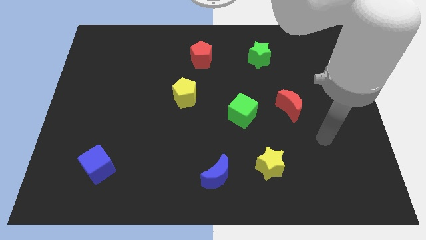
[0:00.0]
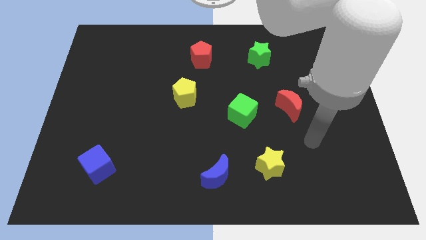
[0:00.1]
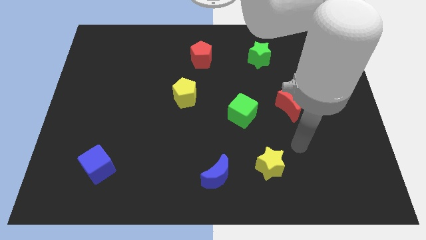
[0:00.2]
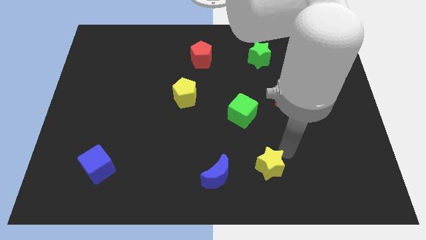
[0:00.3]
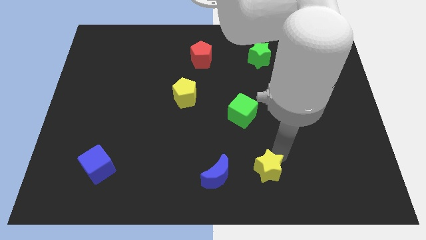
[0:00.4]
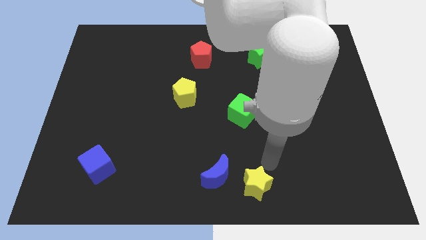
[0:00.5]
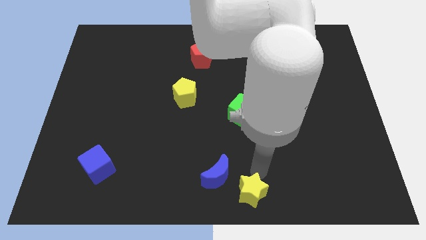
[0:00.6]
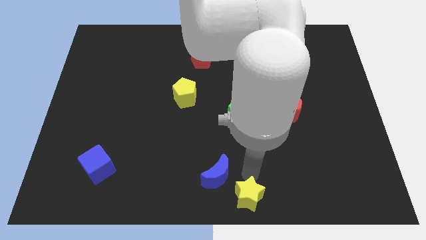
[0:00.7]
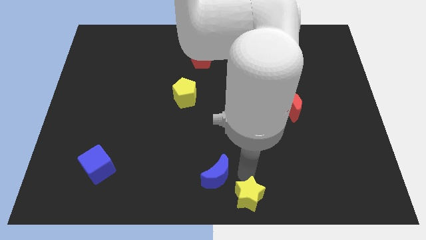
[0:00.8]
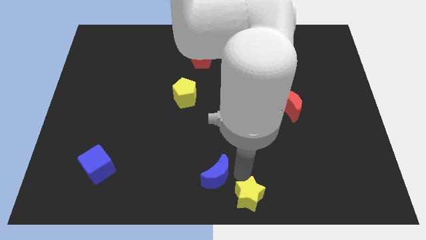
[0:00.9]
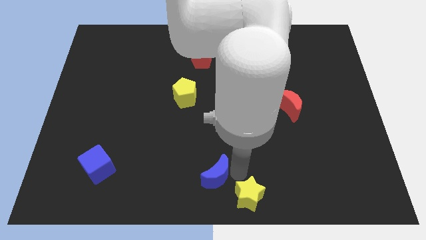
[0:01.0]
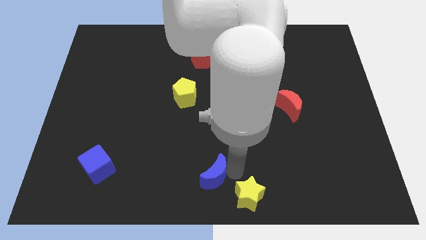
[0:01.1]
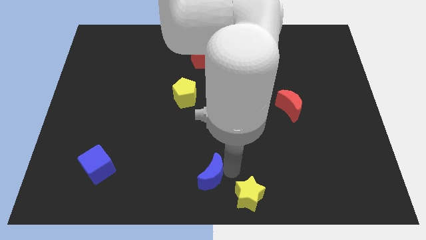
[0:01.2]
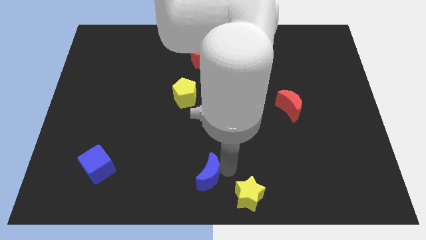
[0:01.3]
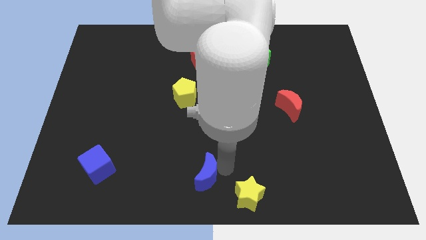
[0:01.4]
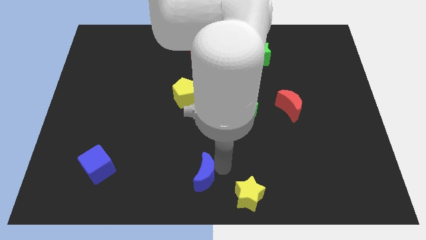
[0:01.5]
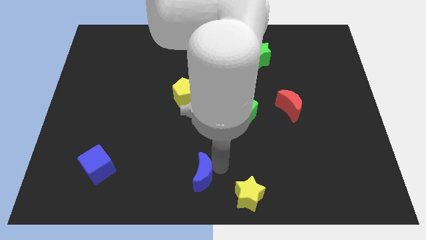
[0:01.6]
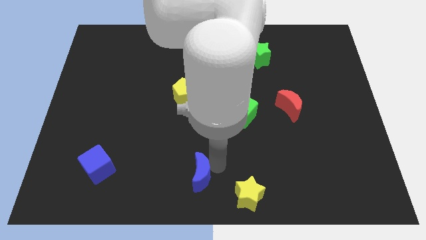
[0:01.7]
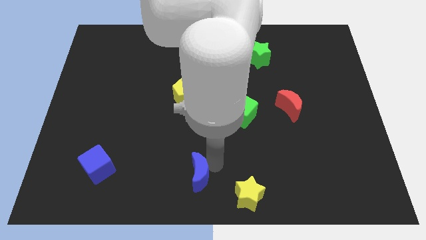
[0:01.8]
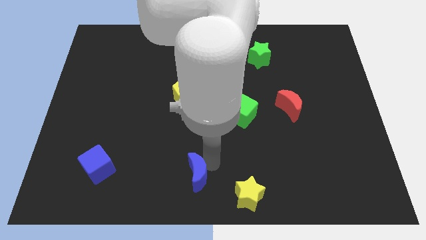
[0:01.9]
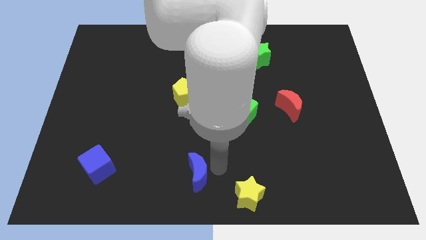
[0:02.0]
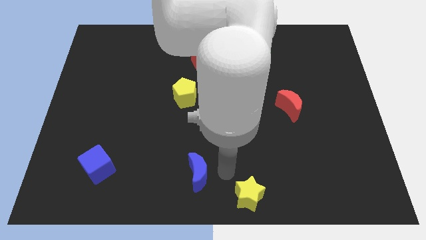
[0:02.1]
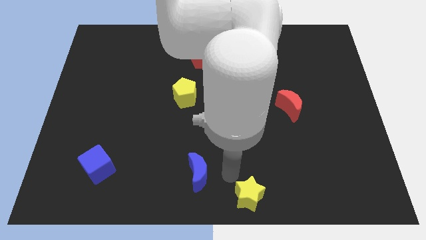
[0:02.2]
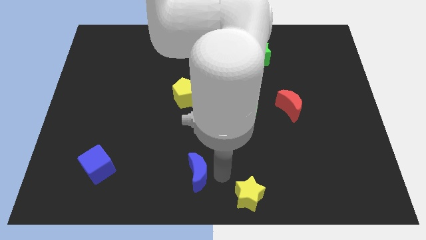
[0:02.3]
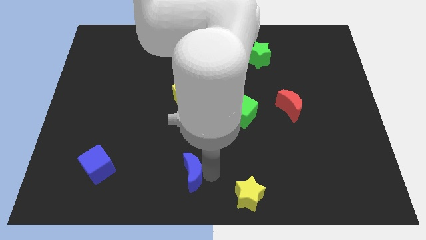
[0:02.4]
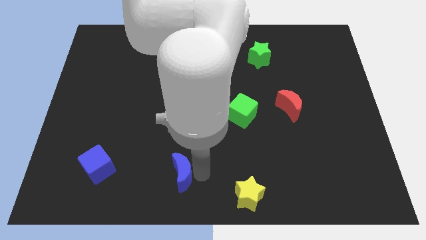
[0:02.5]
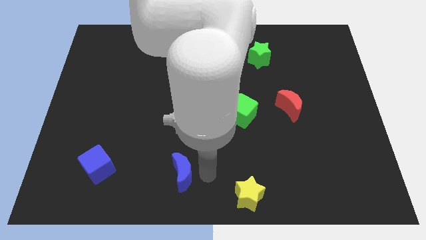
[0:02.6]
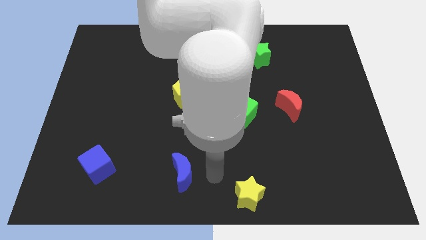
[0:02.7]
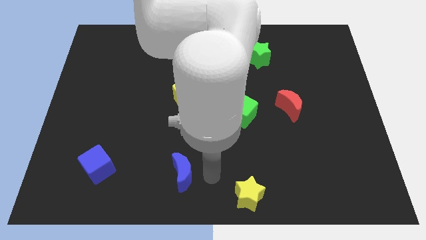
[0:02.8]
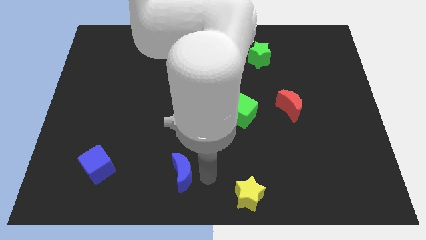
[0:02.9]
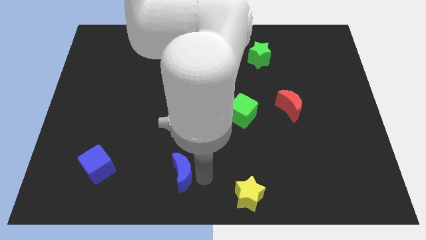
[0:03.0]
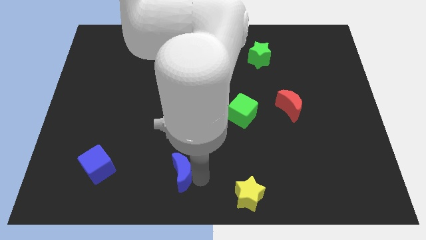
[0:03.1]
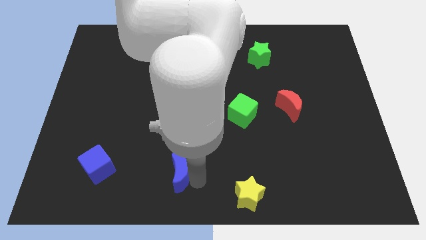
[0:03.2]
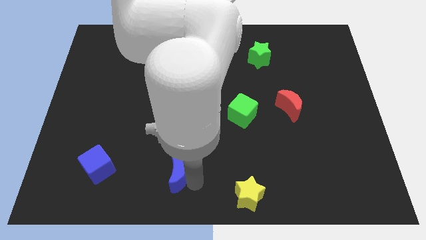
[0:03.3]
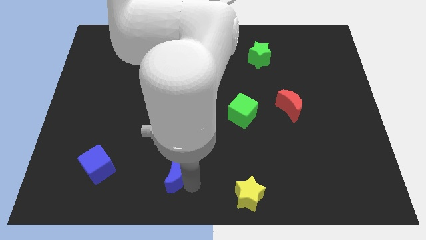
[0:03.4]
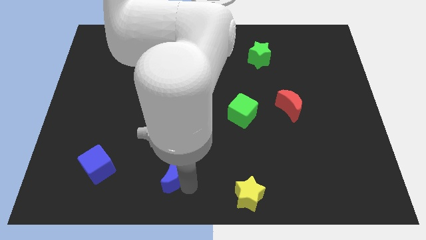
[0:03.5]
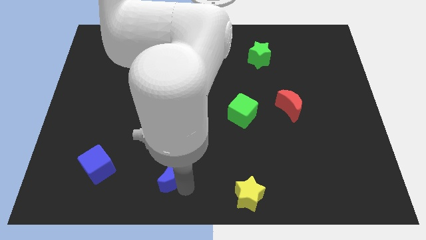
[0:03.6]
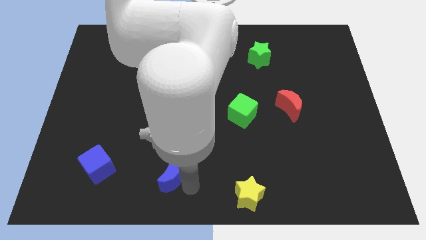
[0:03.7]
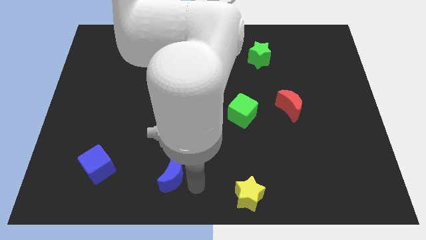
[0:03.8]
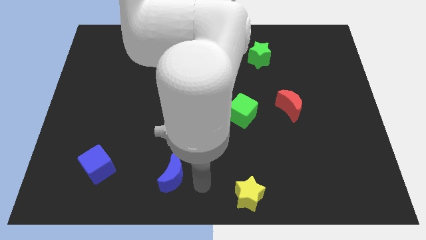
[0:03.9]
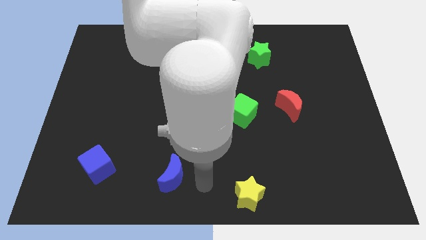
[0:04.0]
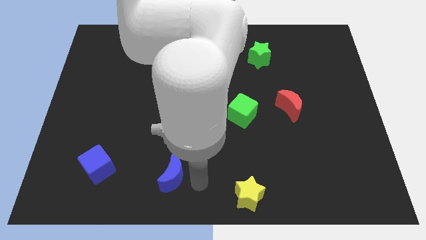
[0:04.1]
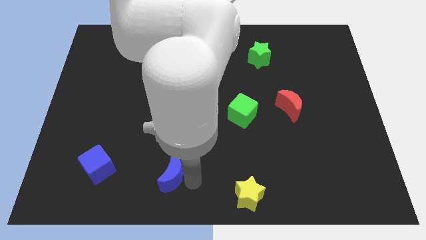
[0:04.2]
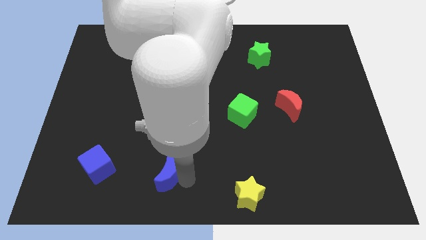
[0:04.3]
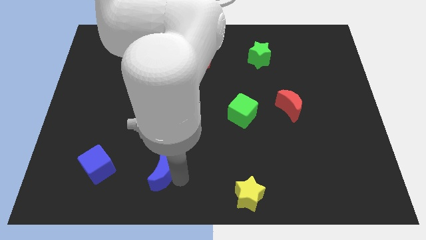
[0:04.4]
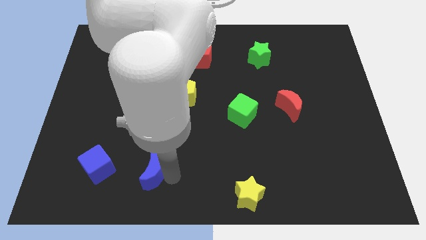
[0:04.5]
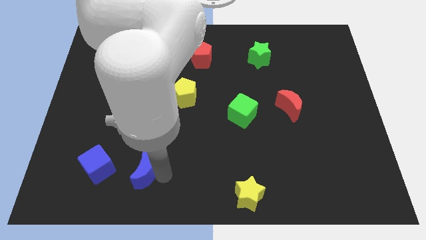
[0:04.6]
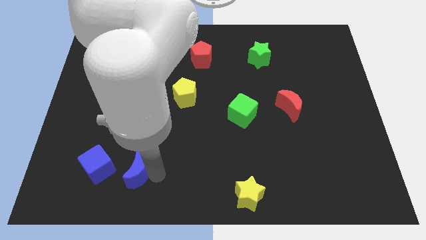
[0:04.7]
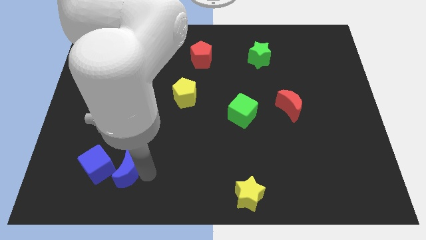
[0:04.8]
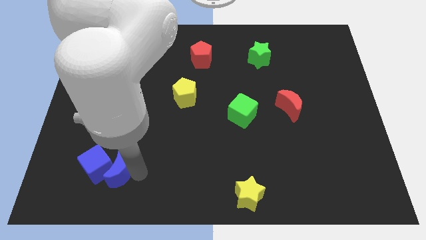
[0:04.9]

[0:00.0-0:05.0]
push the blue moon to the blue cube

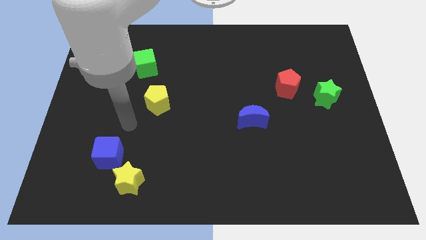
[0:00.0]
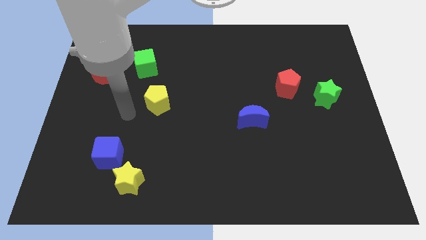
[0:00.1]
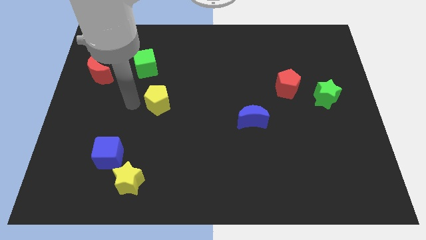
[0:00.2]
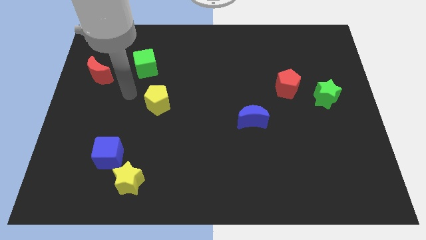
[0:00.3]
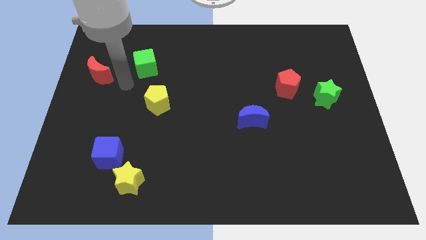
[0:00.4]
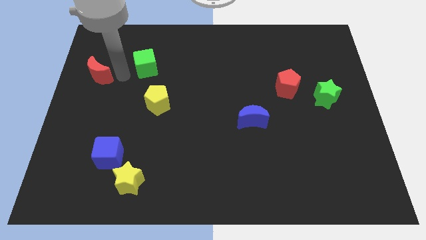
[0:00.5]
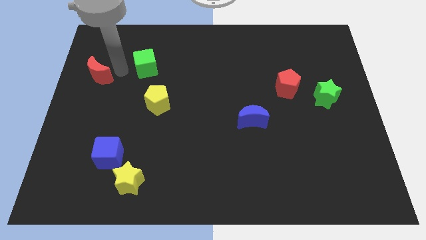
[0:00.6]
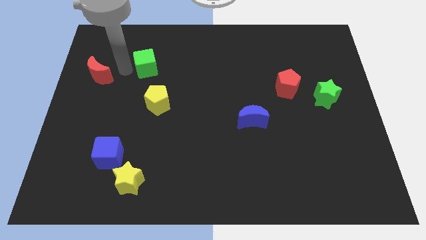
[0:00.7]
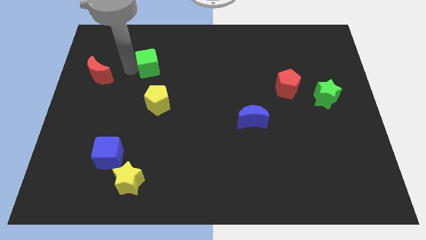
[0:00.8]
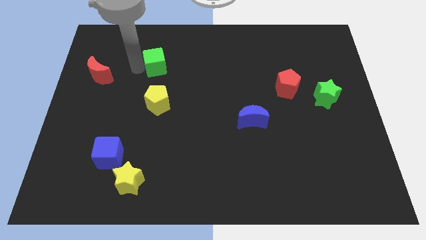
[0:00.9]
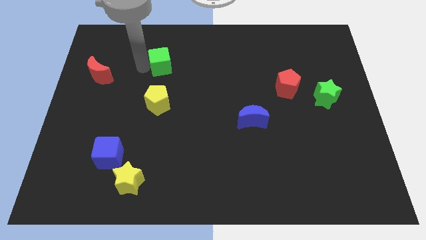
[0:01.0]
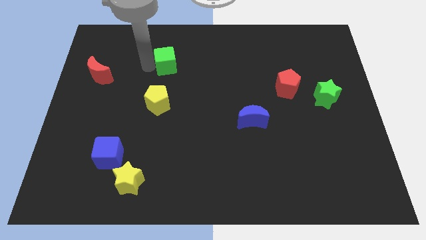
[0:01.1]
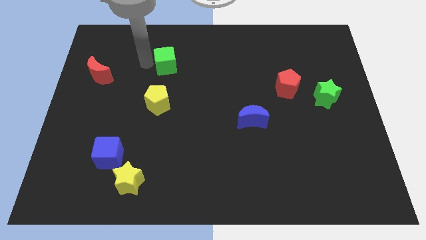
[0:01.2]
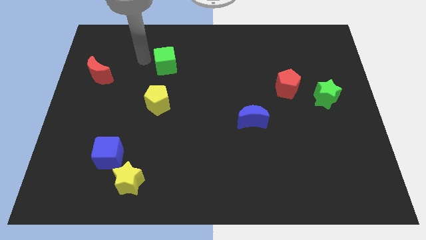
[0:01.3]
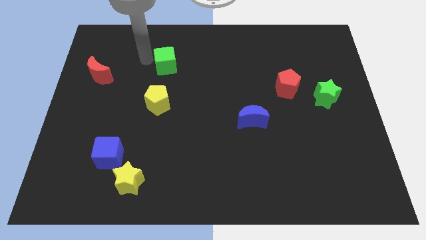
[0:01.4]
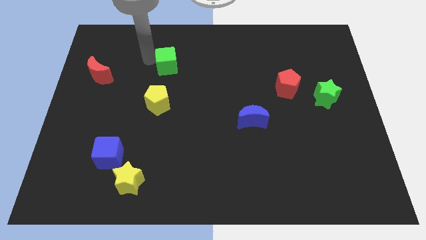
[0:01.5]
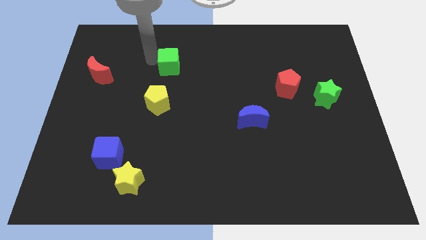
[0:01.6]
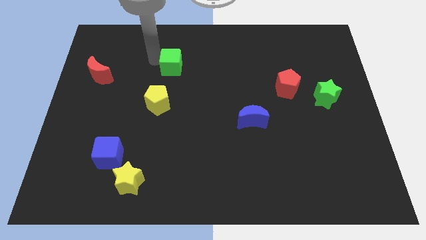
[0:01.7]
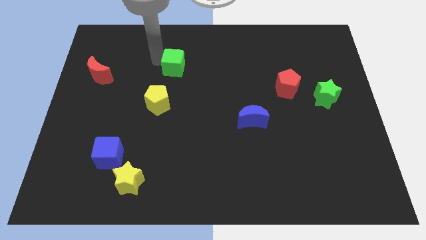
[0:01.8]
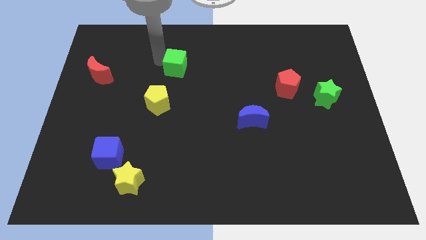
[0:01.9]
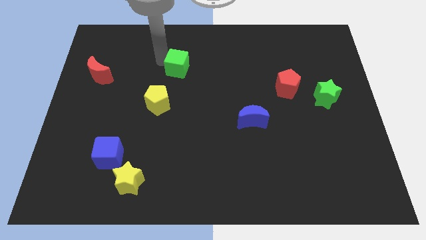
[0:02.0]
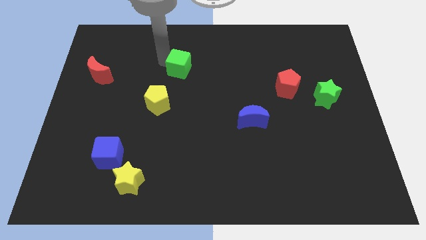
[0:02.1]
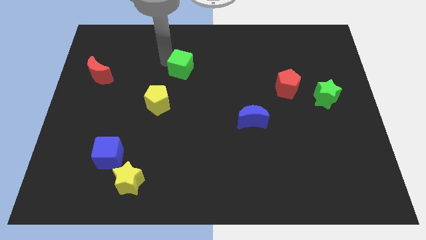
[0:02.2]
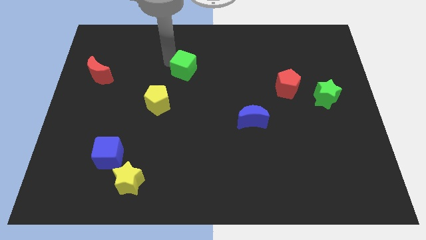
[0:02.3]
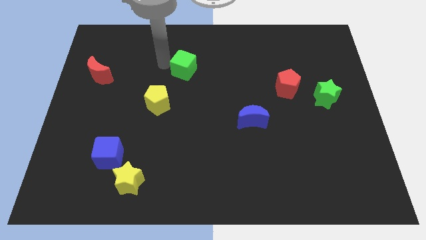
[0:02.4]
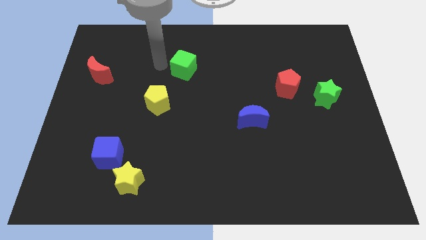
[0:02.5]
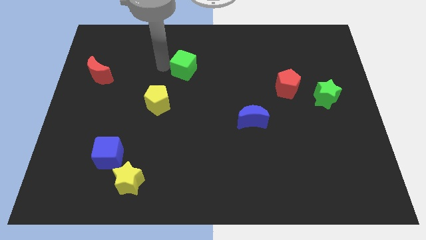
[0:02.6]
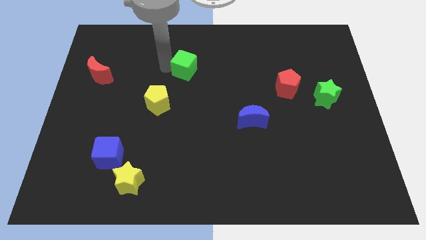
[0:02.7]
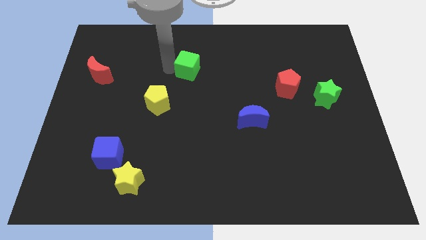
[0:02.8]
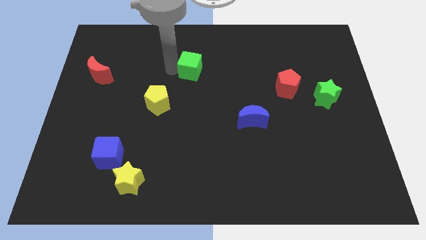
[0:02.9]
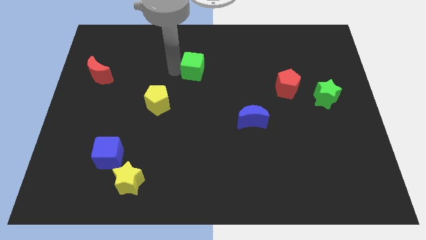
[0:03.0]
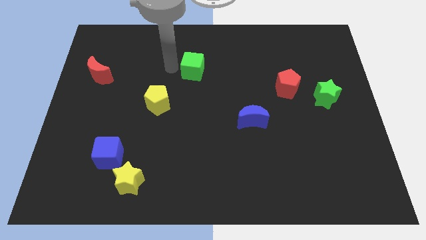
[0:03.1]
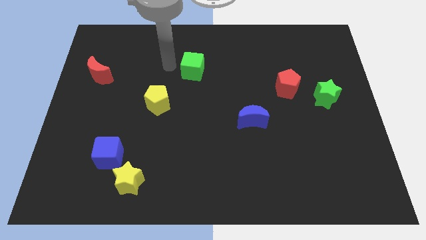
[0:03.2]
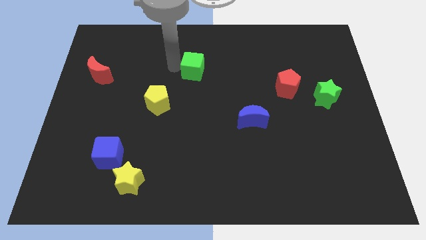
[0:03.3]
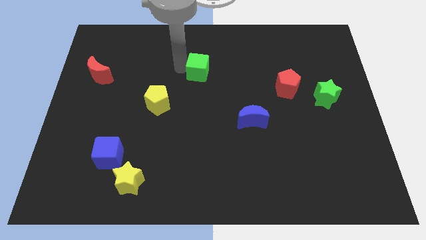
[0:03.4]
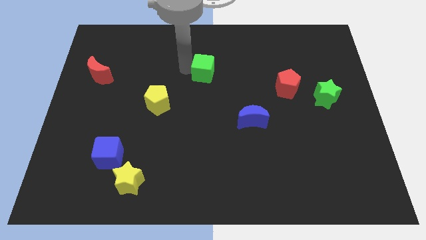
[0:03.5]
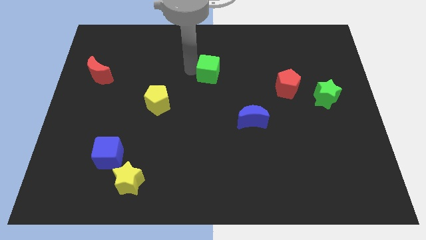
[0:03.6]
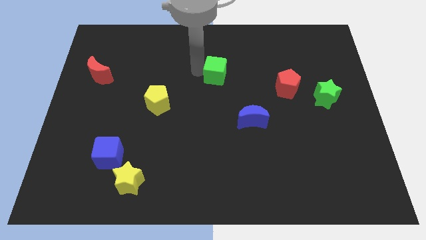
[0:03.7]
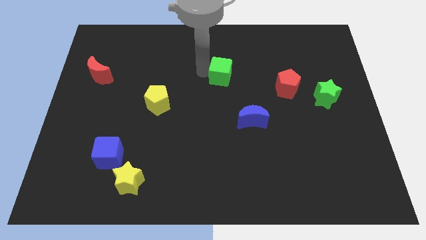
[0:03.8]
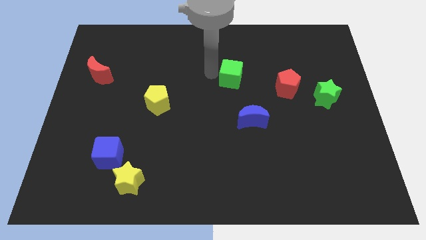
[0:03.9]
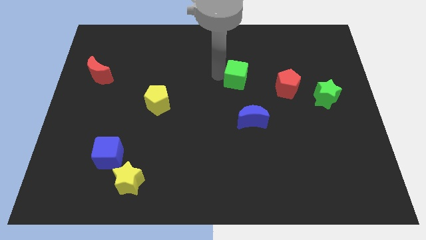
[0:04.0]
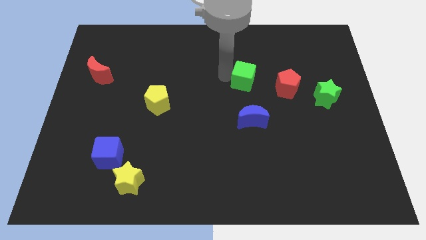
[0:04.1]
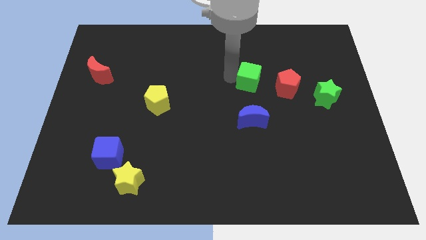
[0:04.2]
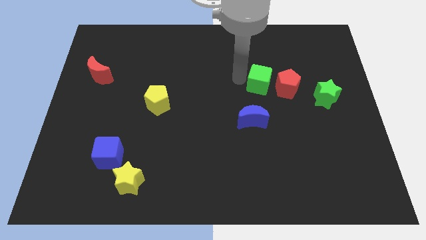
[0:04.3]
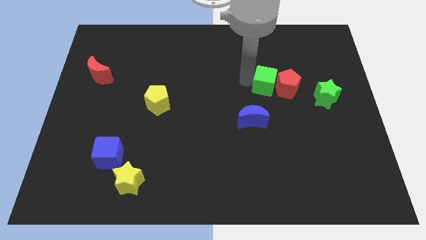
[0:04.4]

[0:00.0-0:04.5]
move the green cube close to the red pentagon
